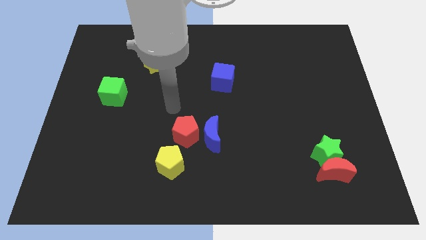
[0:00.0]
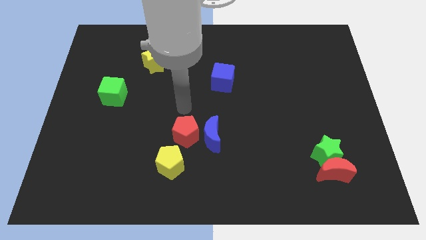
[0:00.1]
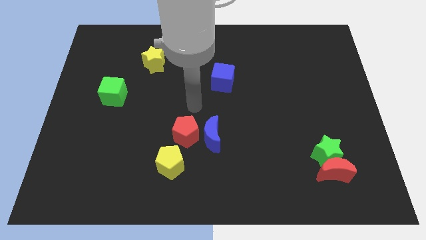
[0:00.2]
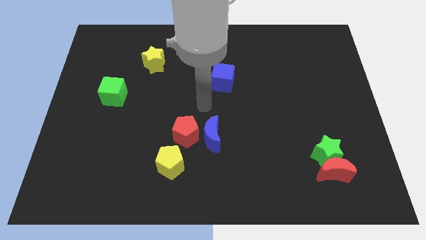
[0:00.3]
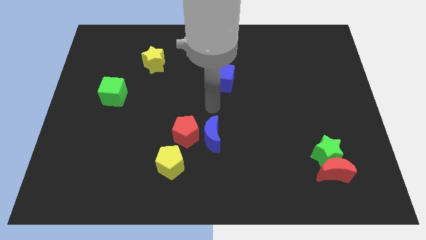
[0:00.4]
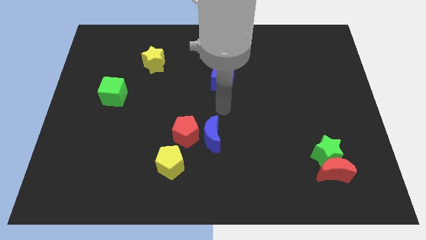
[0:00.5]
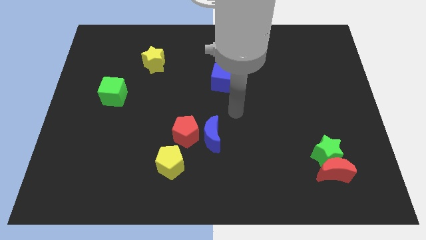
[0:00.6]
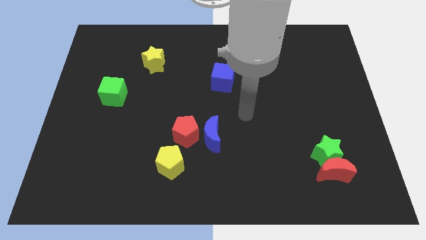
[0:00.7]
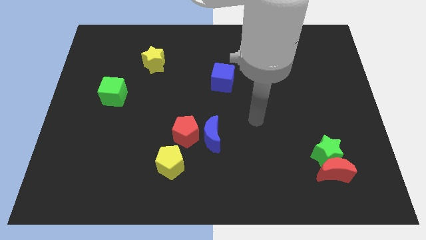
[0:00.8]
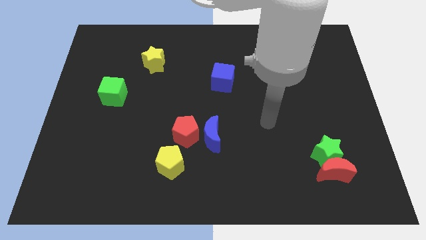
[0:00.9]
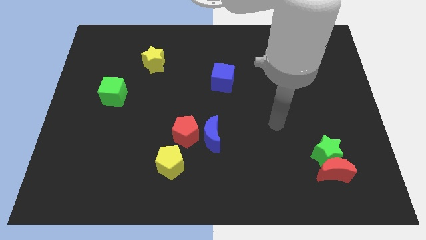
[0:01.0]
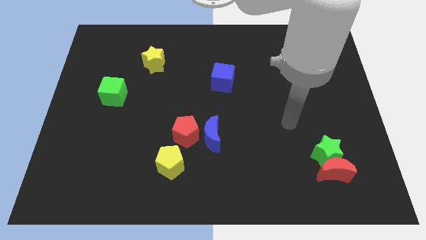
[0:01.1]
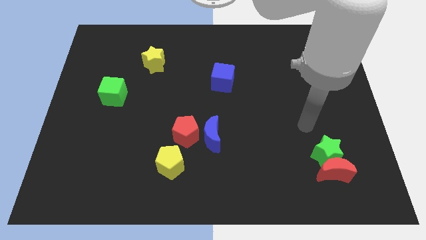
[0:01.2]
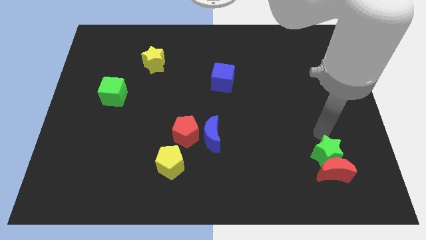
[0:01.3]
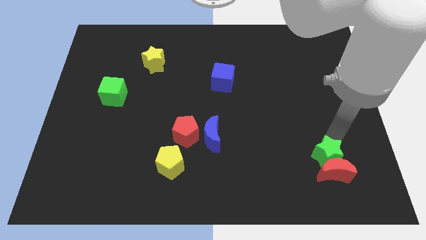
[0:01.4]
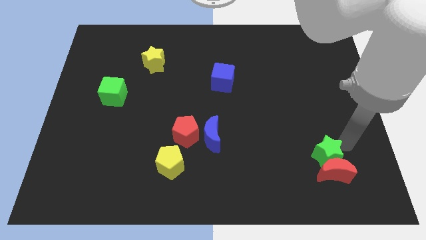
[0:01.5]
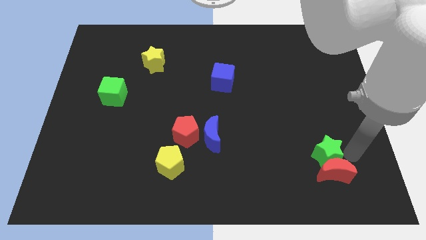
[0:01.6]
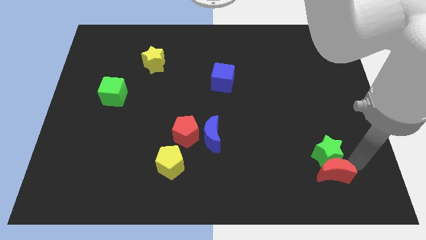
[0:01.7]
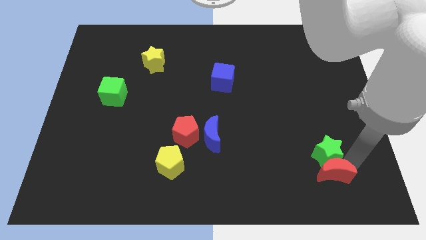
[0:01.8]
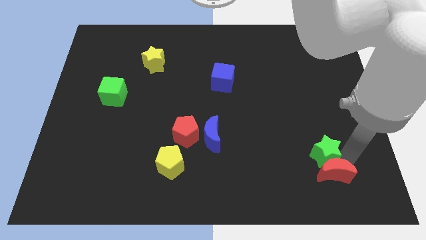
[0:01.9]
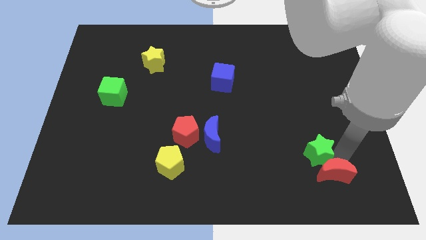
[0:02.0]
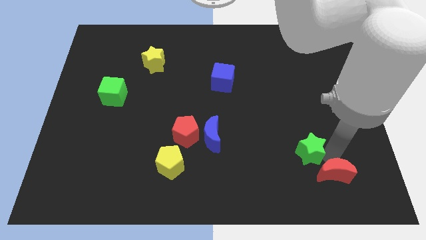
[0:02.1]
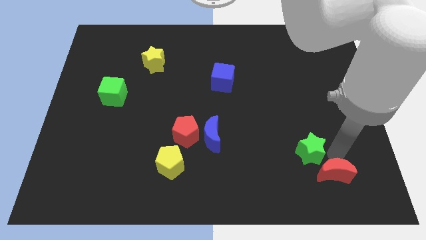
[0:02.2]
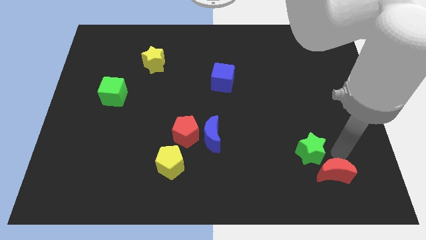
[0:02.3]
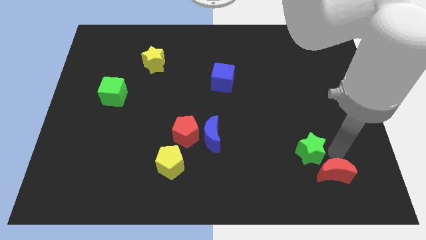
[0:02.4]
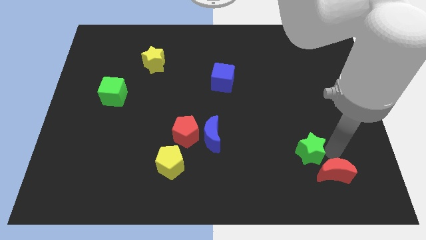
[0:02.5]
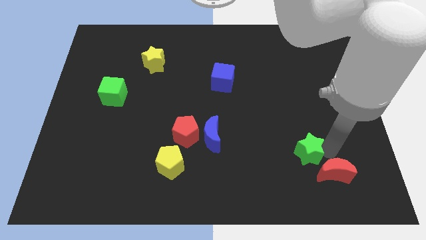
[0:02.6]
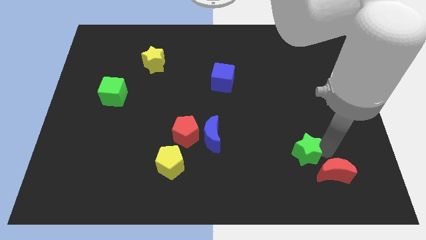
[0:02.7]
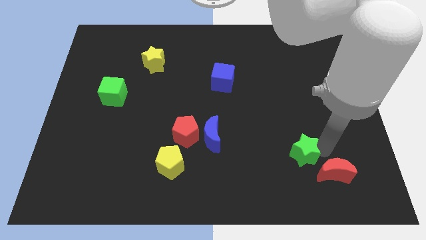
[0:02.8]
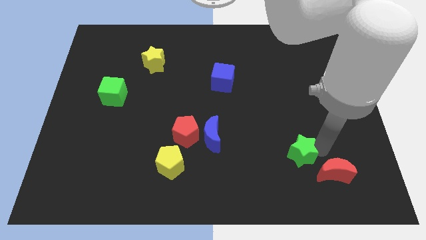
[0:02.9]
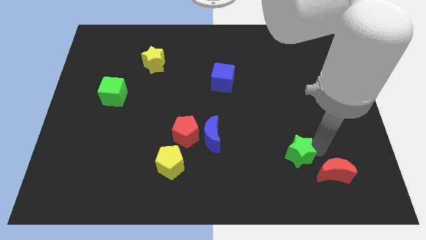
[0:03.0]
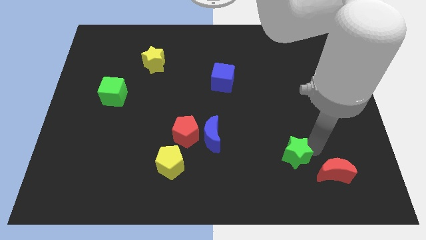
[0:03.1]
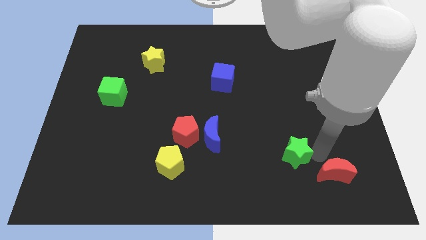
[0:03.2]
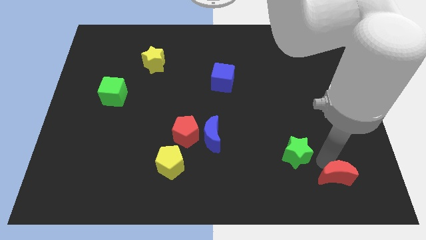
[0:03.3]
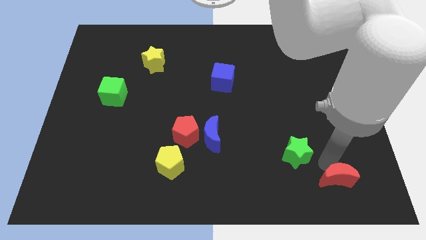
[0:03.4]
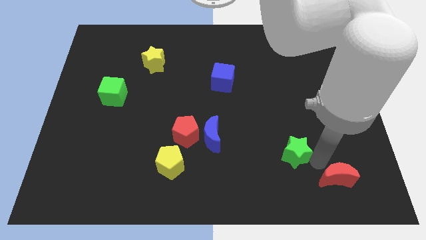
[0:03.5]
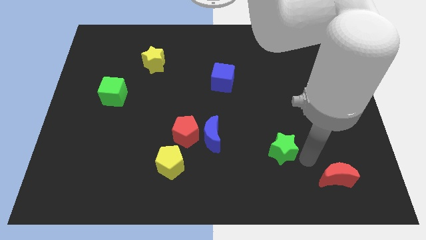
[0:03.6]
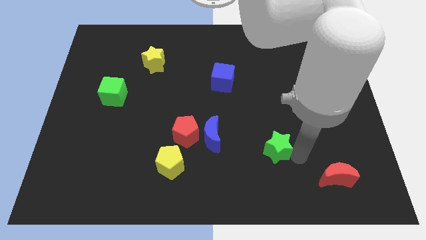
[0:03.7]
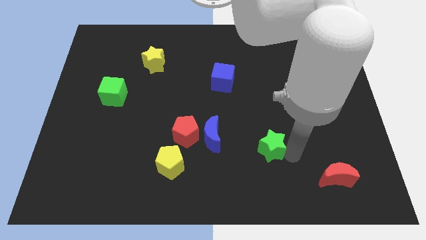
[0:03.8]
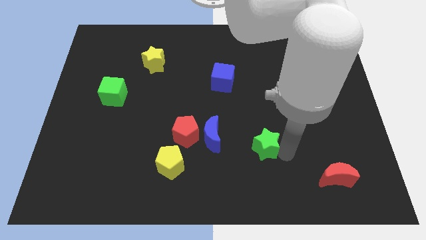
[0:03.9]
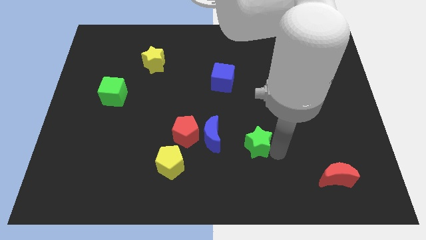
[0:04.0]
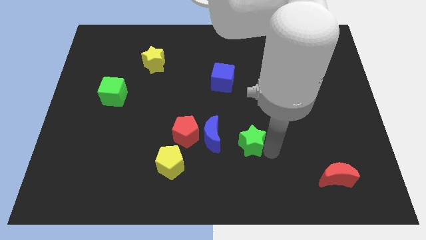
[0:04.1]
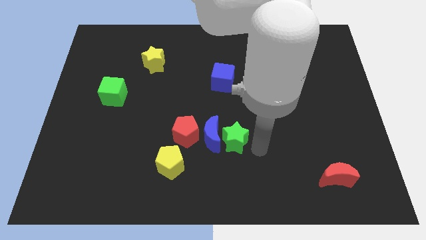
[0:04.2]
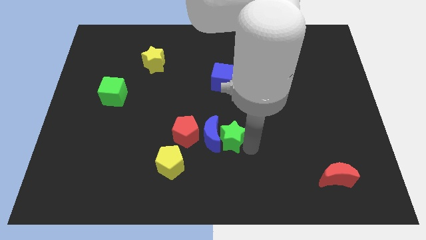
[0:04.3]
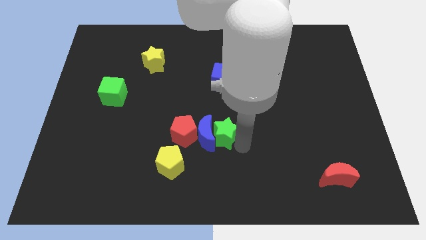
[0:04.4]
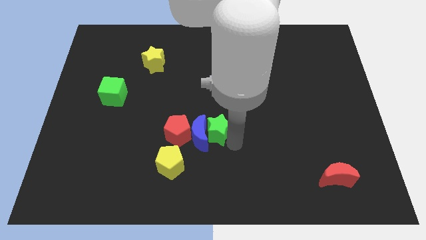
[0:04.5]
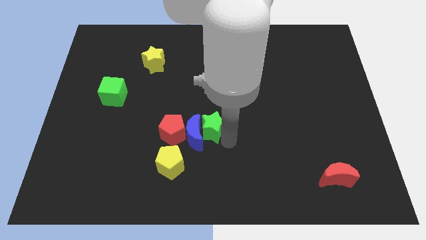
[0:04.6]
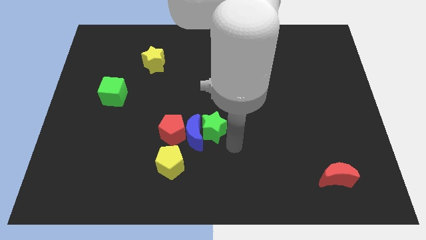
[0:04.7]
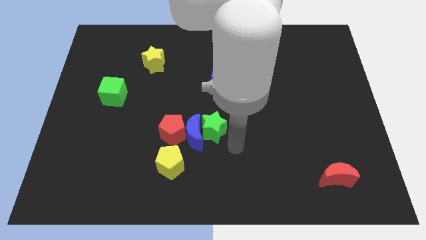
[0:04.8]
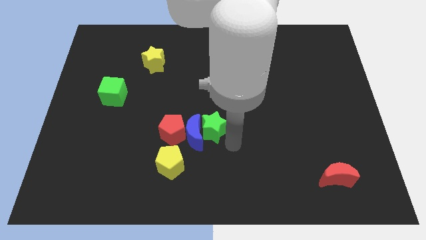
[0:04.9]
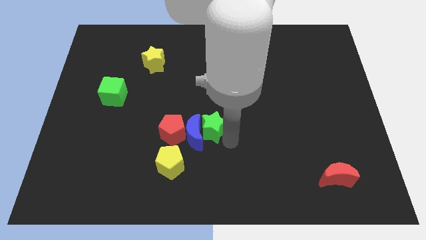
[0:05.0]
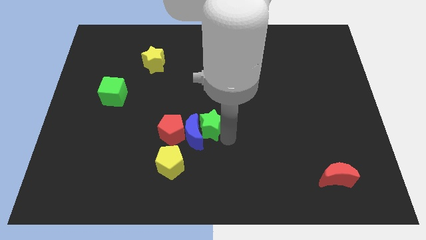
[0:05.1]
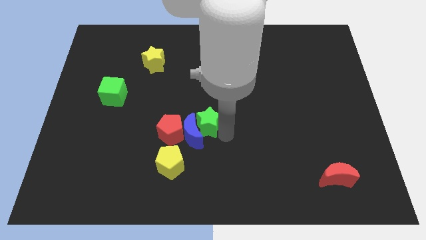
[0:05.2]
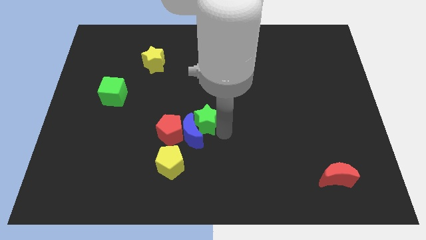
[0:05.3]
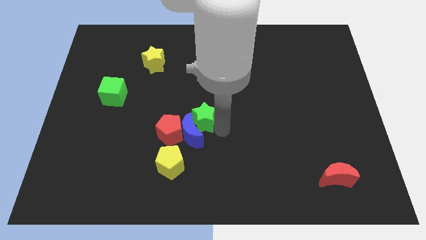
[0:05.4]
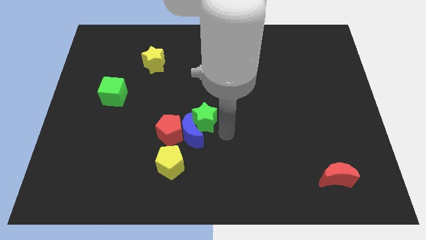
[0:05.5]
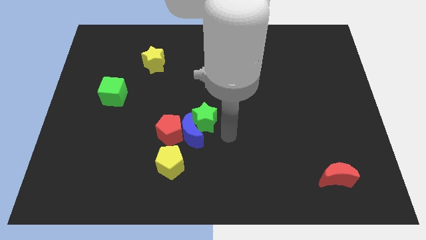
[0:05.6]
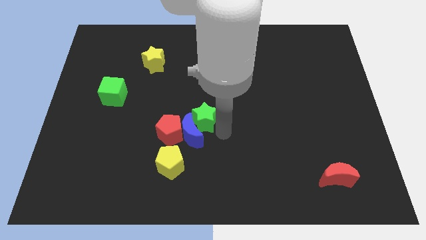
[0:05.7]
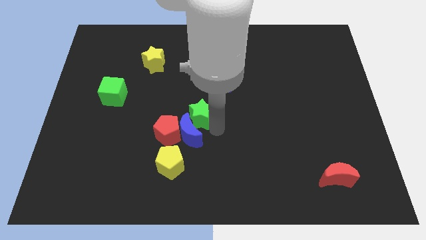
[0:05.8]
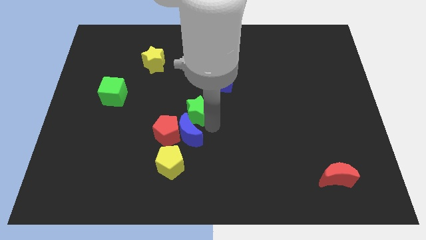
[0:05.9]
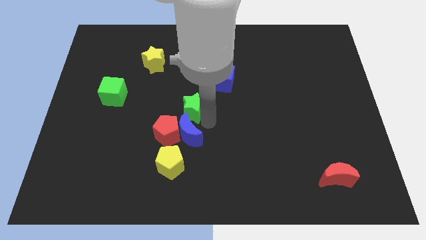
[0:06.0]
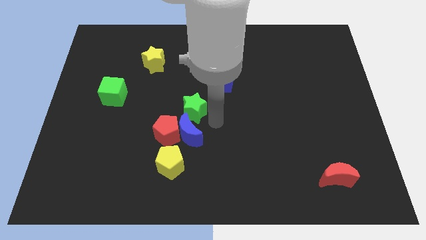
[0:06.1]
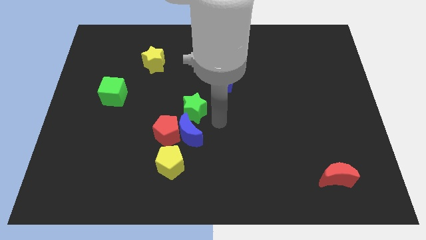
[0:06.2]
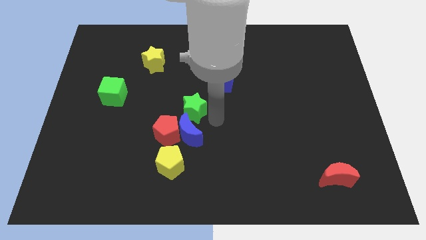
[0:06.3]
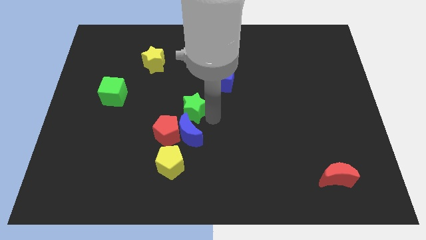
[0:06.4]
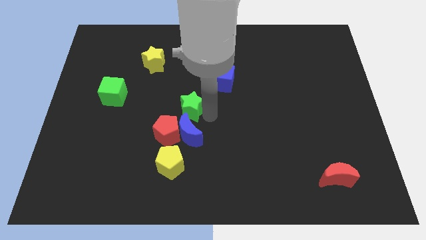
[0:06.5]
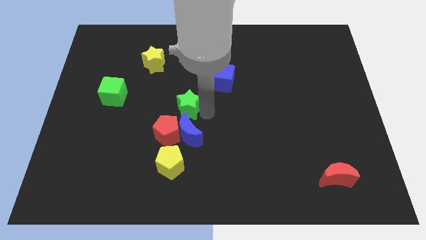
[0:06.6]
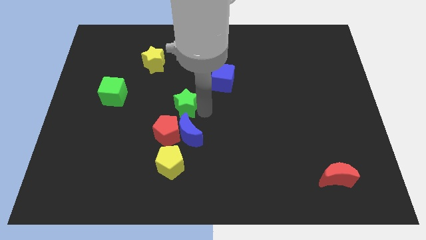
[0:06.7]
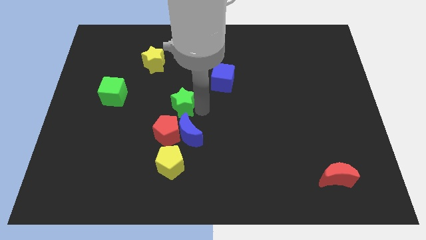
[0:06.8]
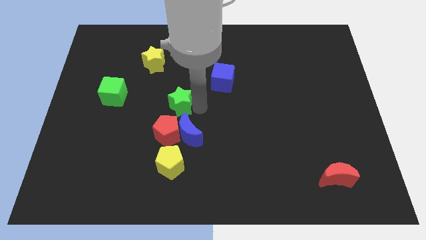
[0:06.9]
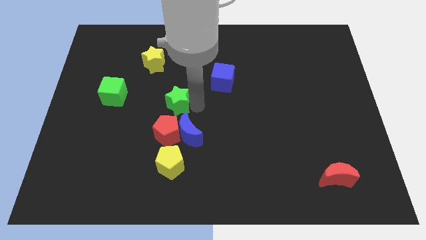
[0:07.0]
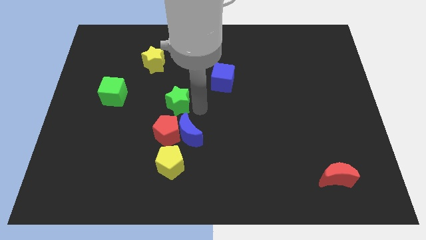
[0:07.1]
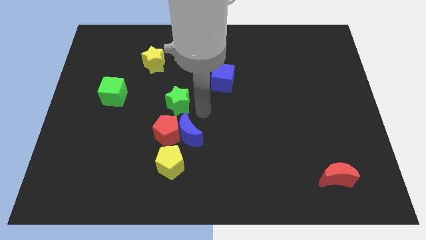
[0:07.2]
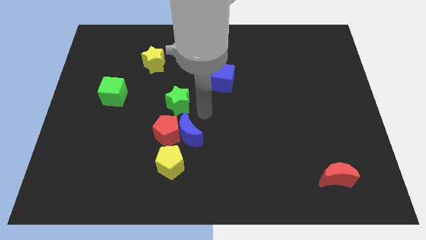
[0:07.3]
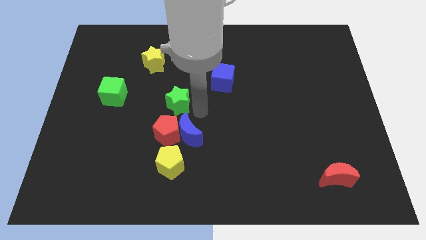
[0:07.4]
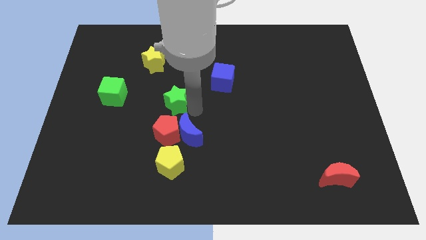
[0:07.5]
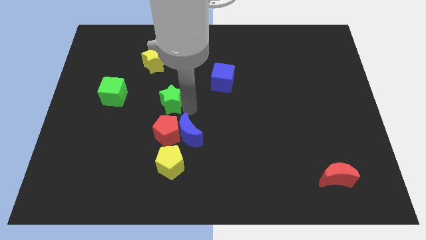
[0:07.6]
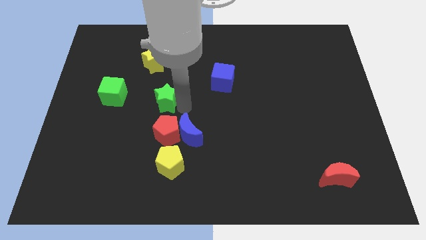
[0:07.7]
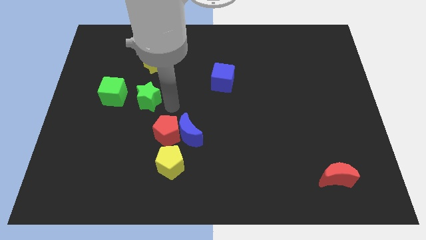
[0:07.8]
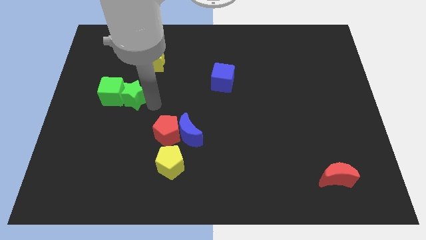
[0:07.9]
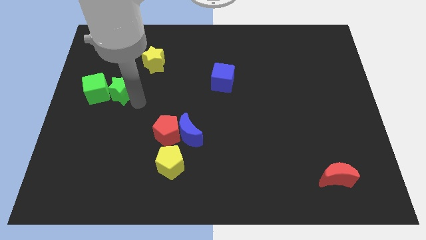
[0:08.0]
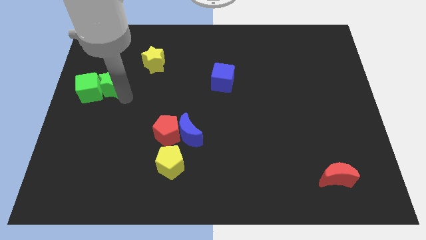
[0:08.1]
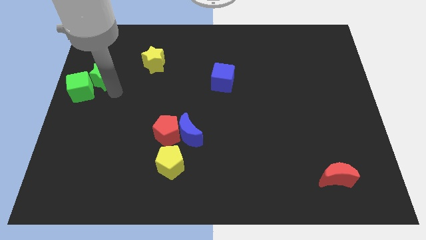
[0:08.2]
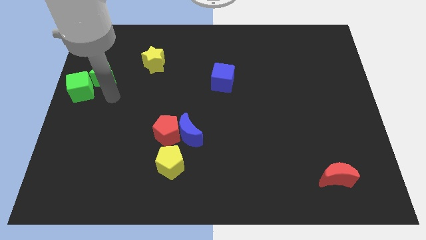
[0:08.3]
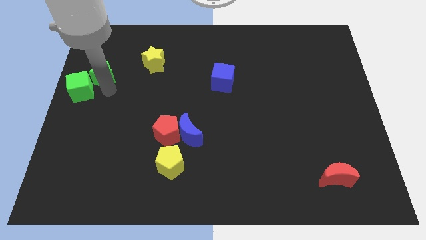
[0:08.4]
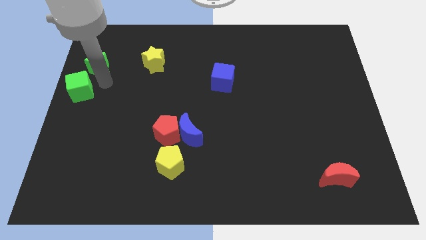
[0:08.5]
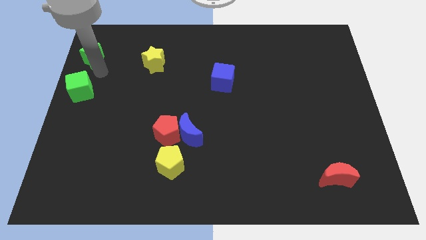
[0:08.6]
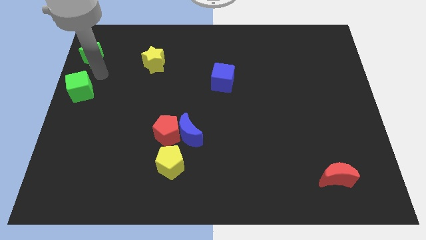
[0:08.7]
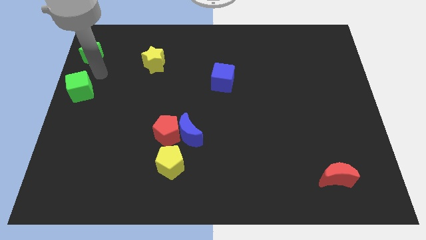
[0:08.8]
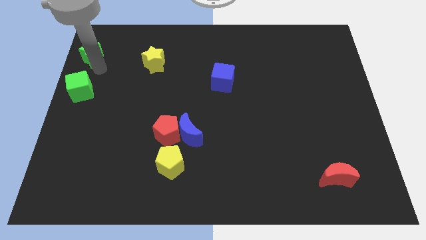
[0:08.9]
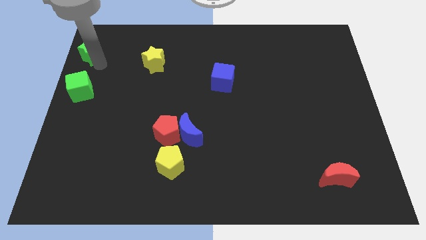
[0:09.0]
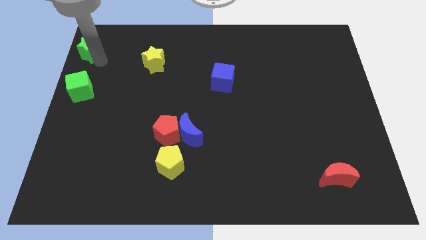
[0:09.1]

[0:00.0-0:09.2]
move the green star to the top left of the board
